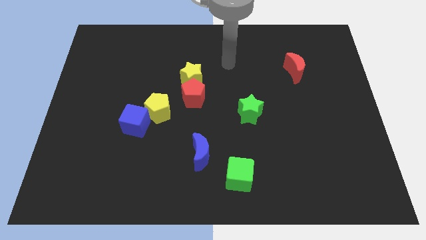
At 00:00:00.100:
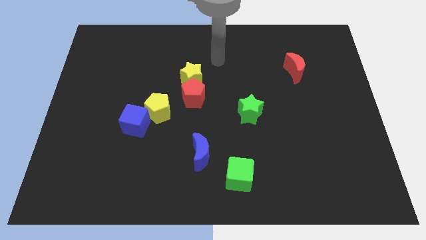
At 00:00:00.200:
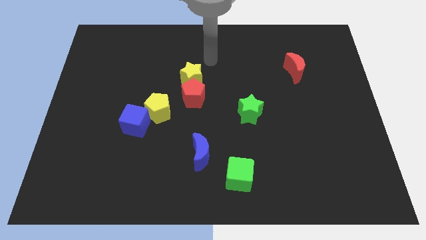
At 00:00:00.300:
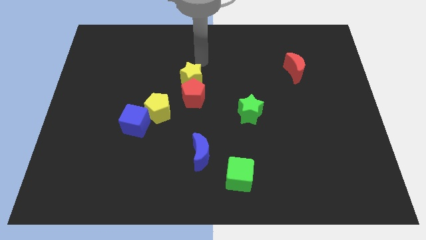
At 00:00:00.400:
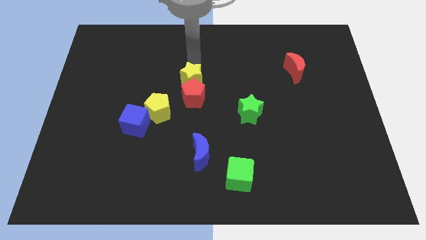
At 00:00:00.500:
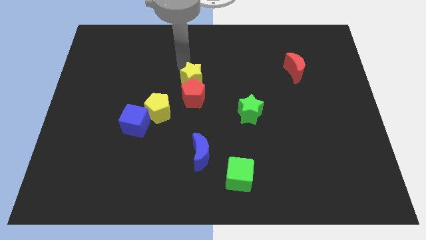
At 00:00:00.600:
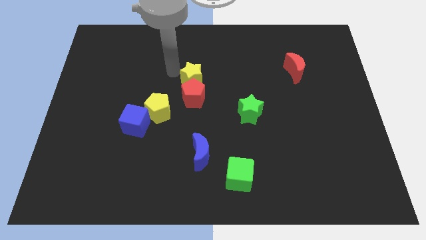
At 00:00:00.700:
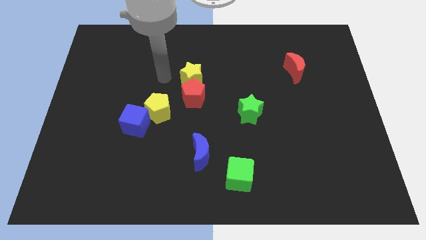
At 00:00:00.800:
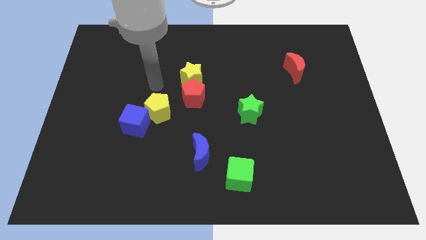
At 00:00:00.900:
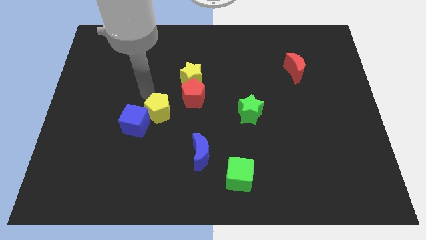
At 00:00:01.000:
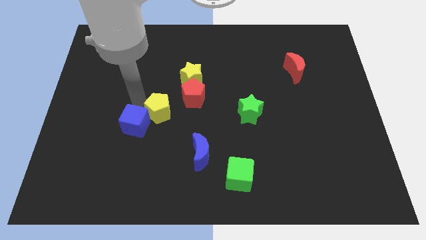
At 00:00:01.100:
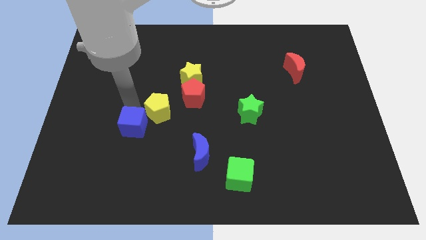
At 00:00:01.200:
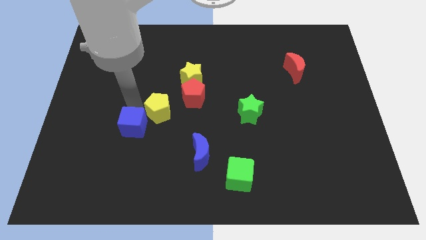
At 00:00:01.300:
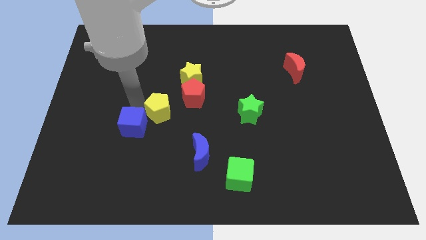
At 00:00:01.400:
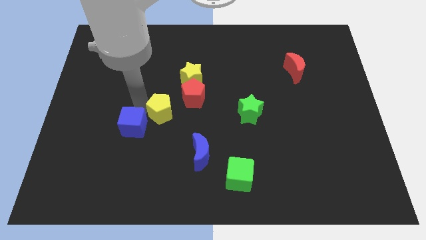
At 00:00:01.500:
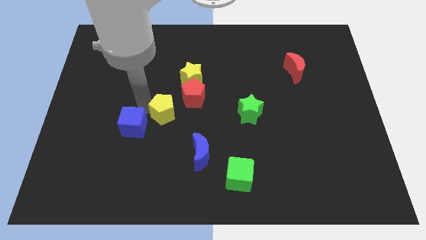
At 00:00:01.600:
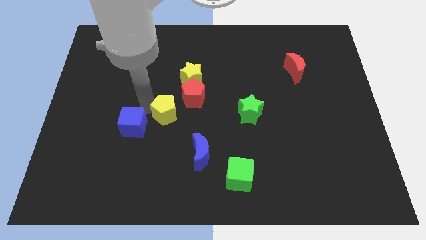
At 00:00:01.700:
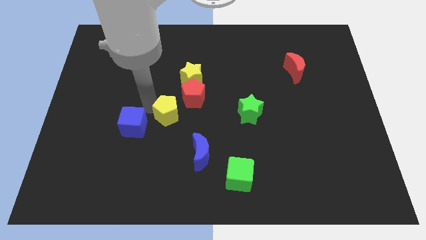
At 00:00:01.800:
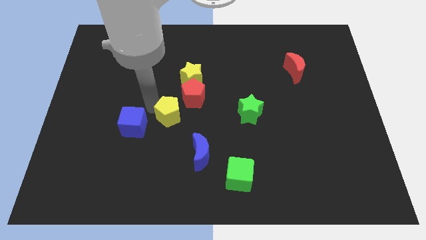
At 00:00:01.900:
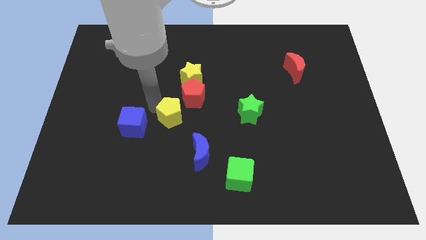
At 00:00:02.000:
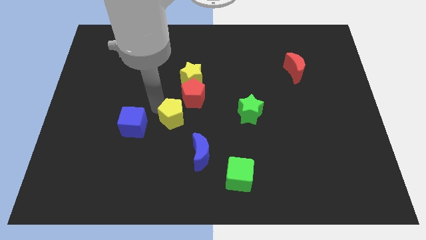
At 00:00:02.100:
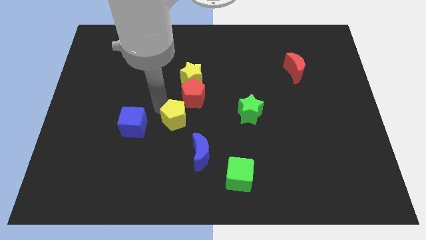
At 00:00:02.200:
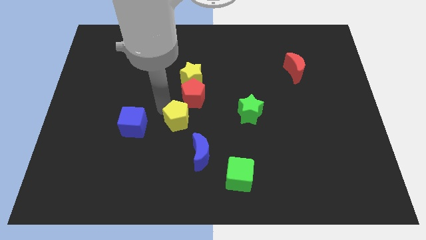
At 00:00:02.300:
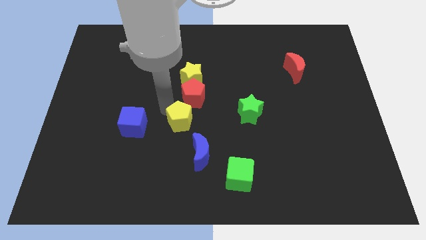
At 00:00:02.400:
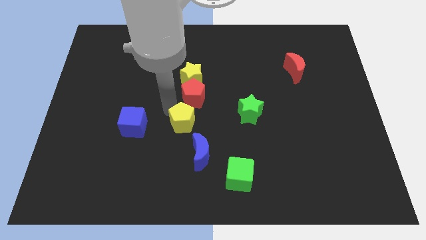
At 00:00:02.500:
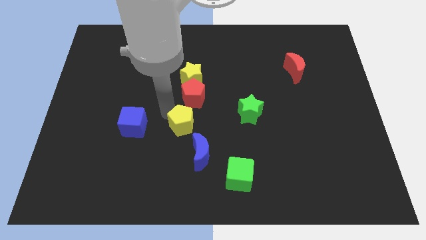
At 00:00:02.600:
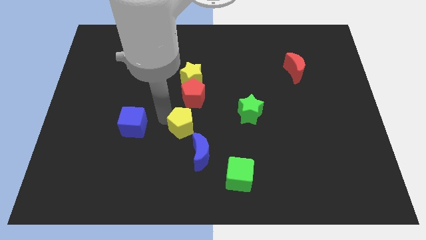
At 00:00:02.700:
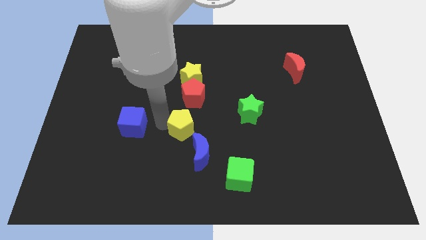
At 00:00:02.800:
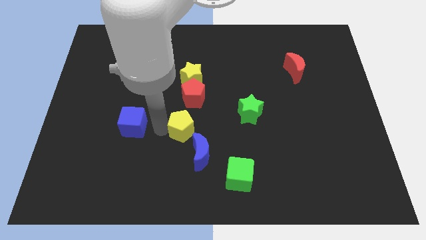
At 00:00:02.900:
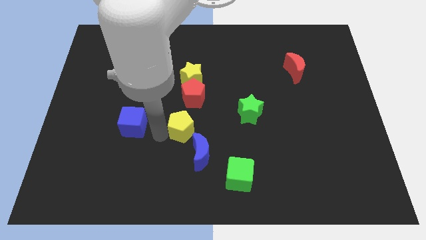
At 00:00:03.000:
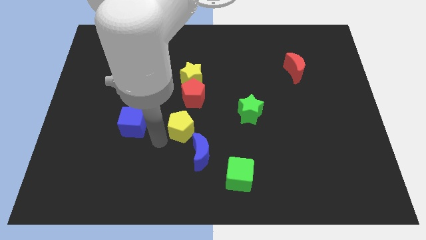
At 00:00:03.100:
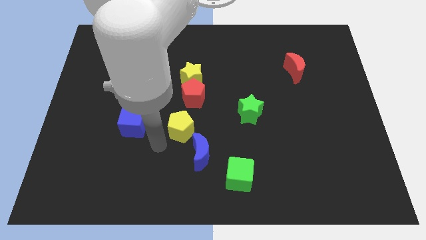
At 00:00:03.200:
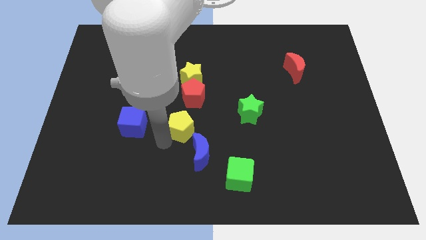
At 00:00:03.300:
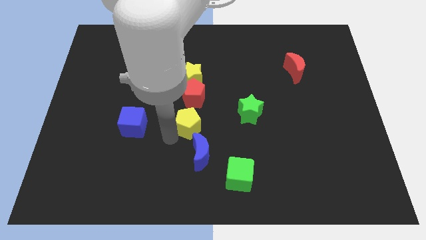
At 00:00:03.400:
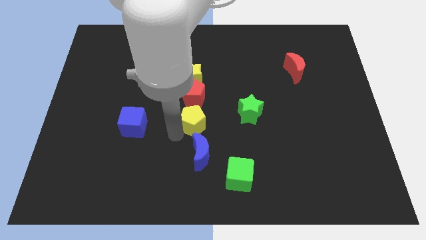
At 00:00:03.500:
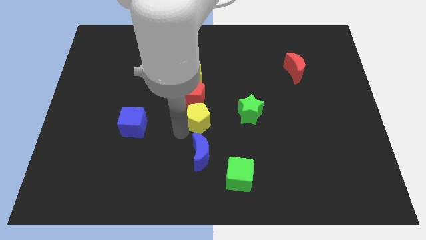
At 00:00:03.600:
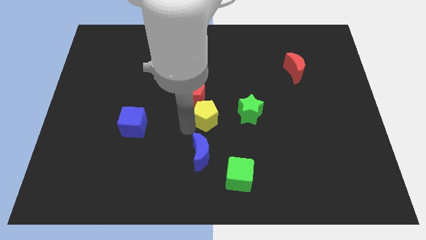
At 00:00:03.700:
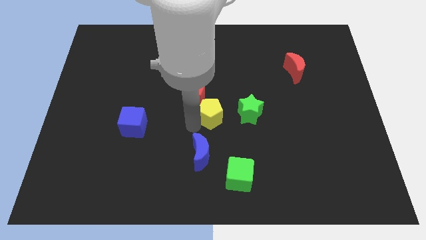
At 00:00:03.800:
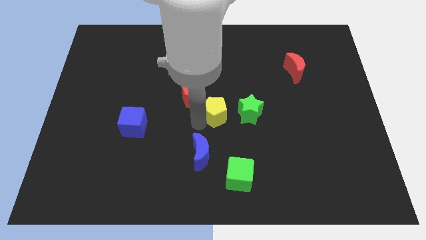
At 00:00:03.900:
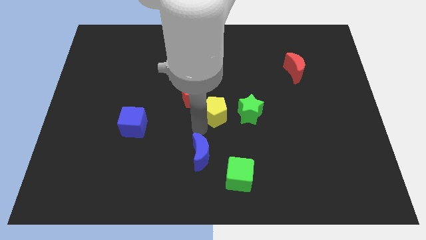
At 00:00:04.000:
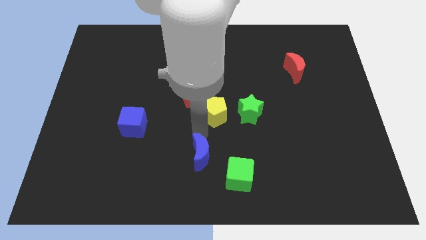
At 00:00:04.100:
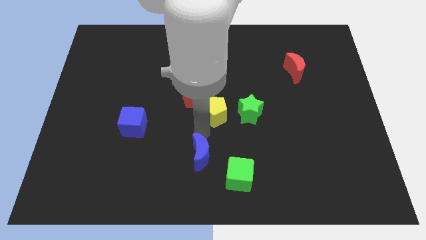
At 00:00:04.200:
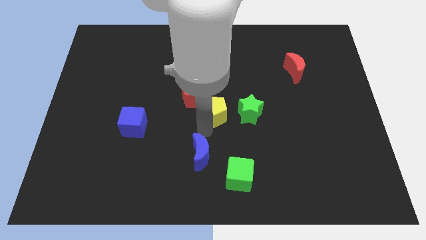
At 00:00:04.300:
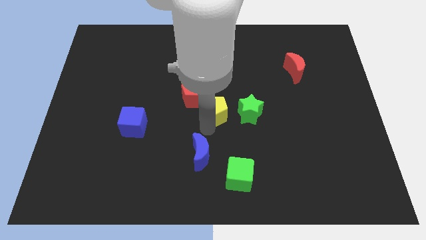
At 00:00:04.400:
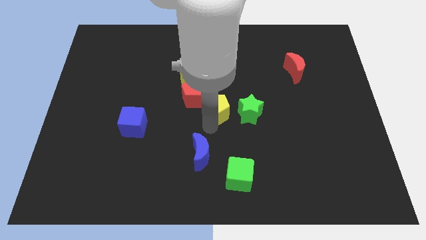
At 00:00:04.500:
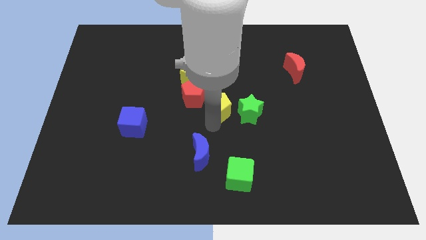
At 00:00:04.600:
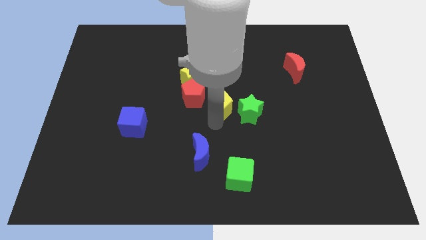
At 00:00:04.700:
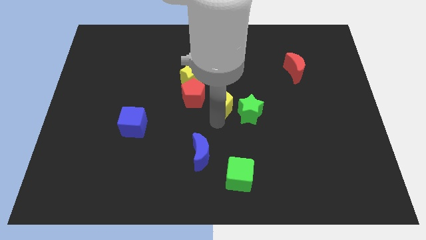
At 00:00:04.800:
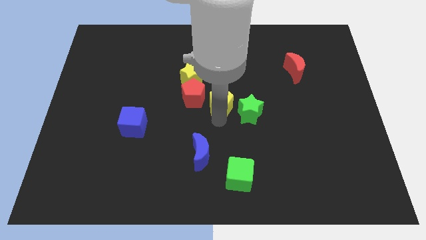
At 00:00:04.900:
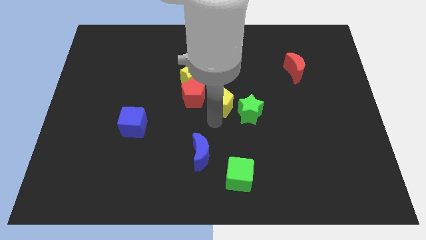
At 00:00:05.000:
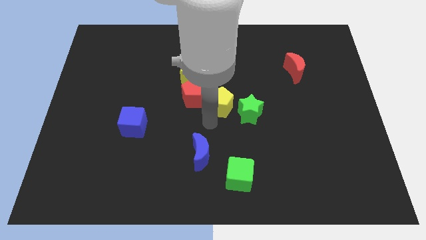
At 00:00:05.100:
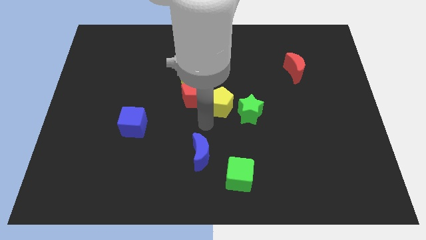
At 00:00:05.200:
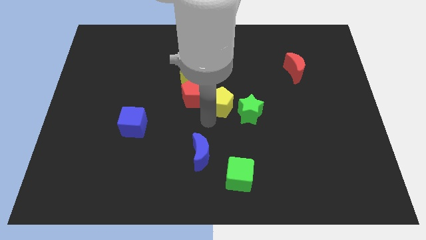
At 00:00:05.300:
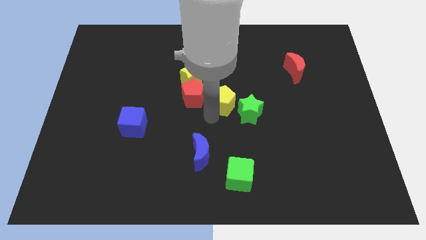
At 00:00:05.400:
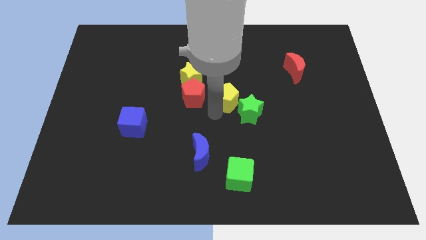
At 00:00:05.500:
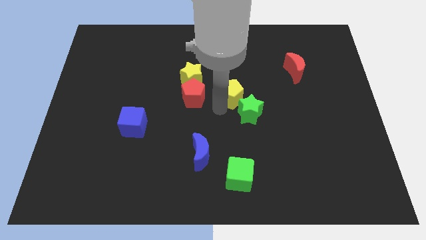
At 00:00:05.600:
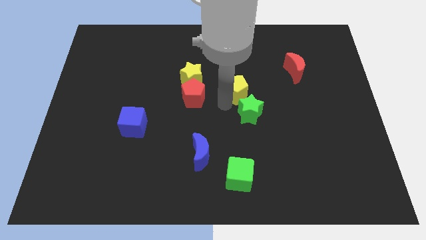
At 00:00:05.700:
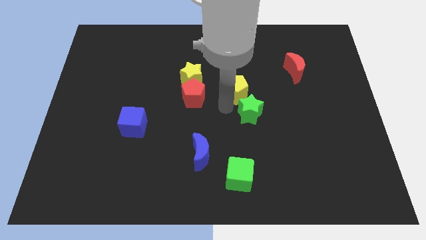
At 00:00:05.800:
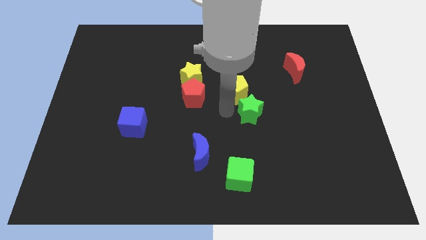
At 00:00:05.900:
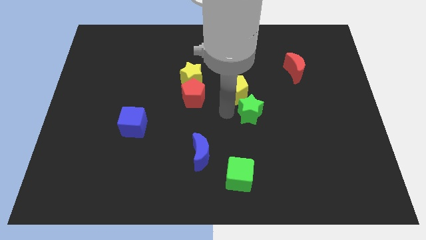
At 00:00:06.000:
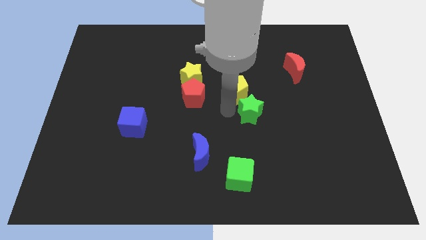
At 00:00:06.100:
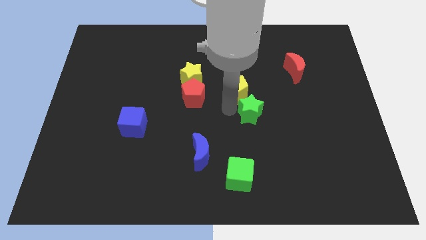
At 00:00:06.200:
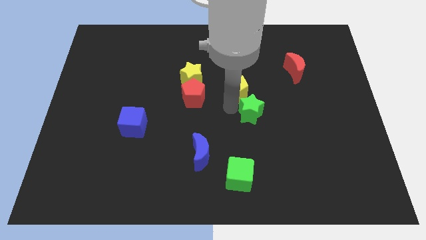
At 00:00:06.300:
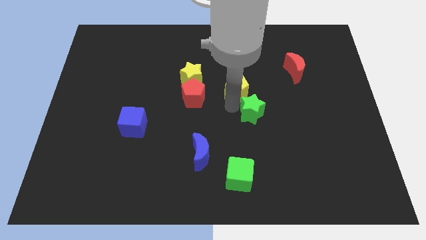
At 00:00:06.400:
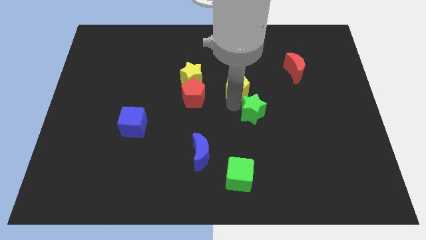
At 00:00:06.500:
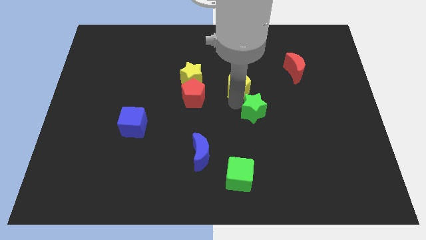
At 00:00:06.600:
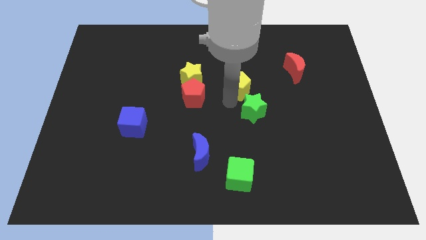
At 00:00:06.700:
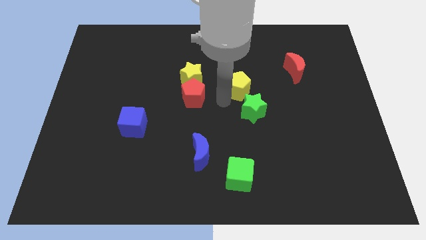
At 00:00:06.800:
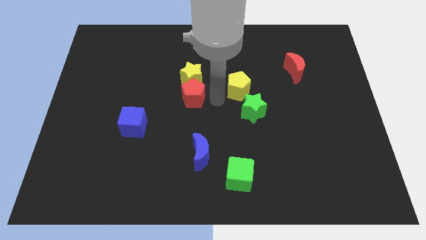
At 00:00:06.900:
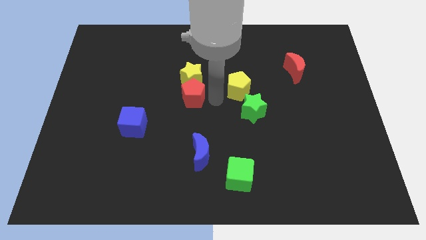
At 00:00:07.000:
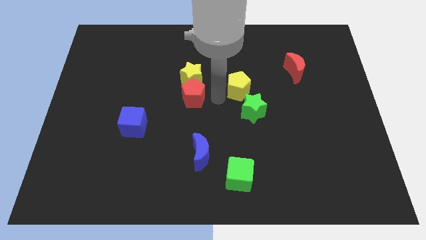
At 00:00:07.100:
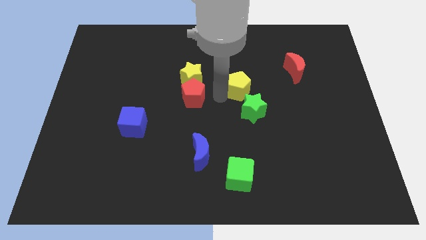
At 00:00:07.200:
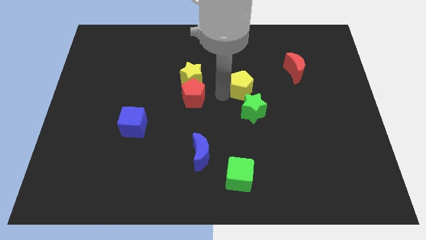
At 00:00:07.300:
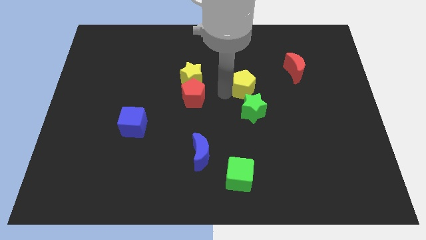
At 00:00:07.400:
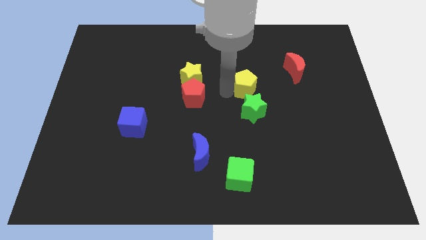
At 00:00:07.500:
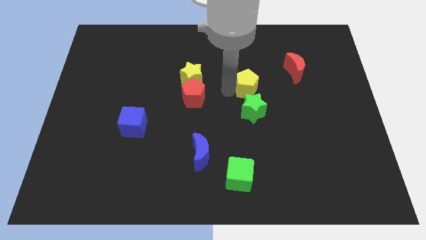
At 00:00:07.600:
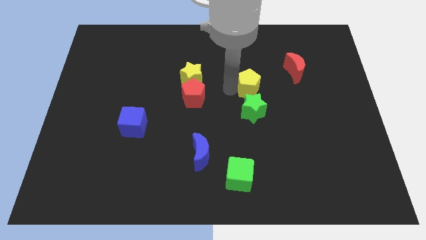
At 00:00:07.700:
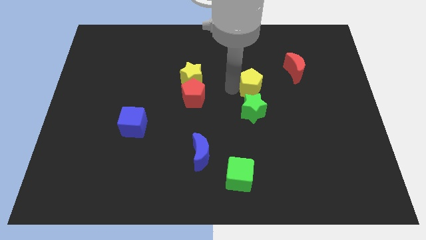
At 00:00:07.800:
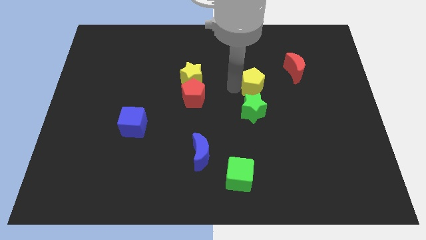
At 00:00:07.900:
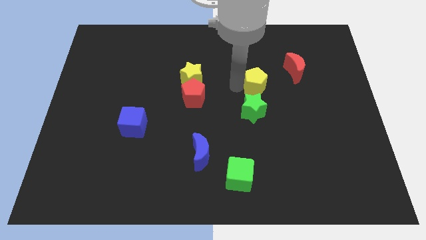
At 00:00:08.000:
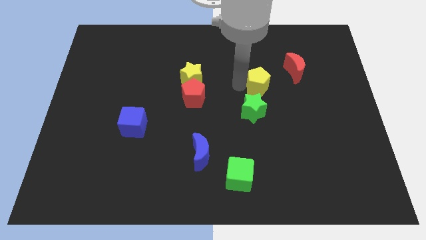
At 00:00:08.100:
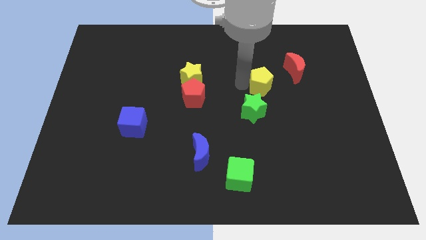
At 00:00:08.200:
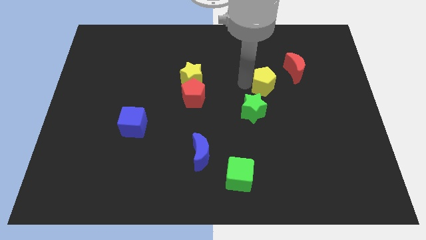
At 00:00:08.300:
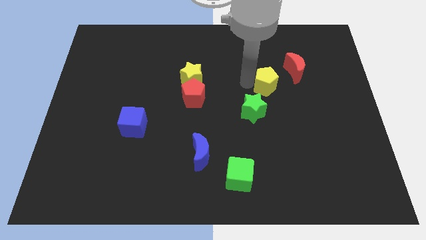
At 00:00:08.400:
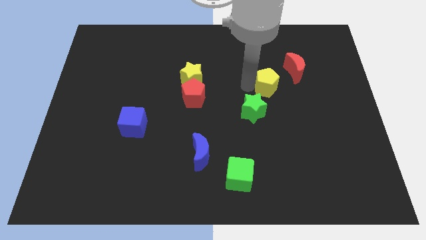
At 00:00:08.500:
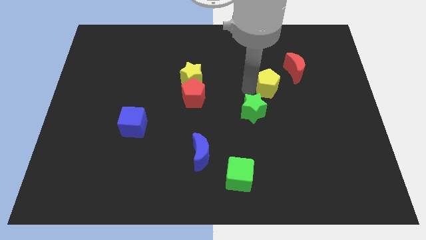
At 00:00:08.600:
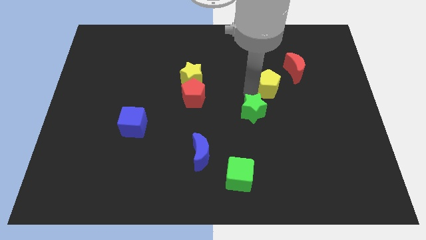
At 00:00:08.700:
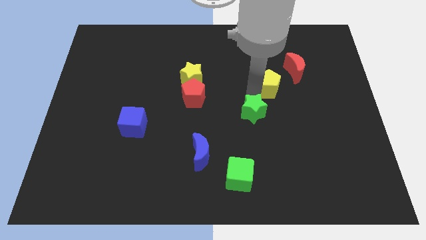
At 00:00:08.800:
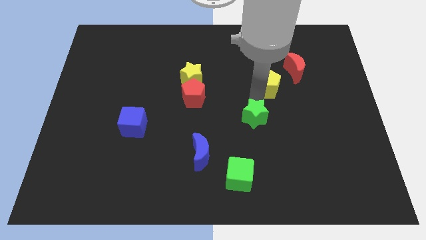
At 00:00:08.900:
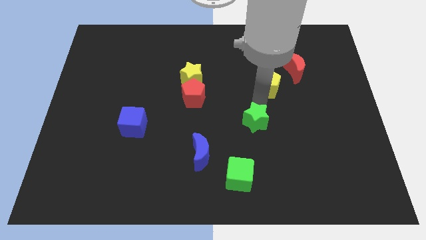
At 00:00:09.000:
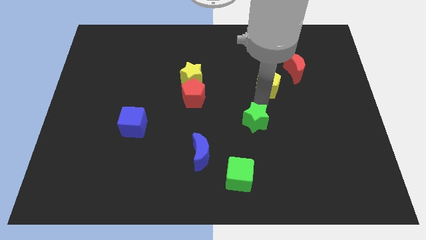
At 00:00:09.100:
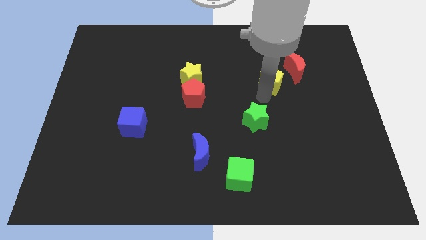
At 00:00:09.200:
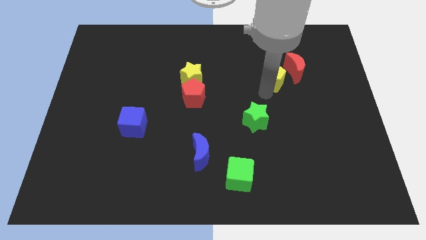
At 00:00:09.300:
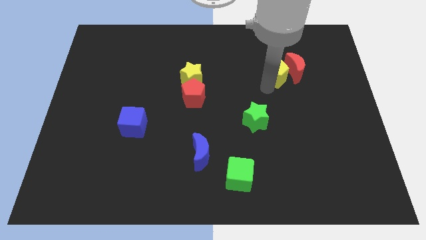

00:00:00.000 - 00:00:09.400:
slide the yellow pentagon next to the red moon
